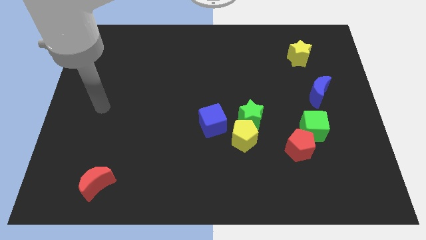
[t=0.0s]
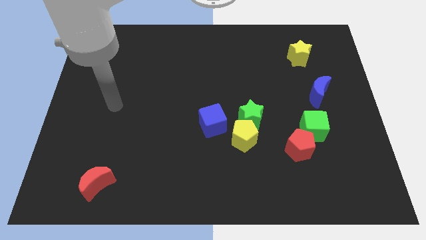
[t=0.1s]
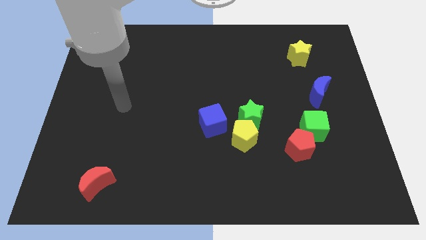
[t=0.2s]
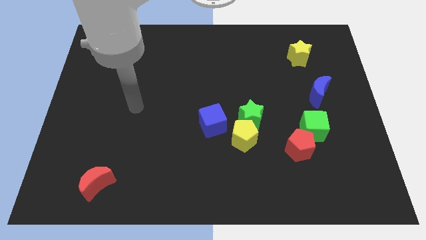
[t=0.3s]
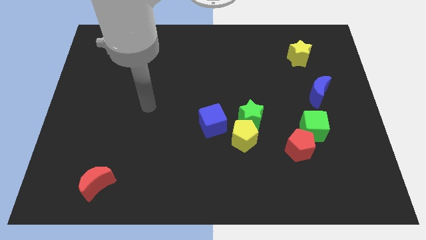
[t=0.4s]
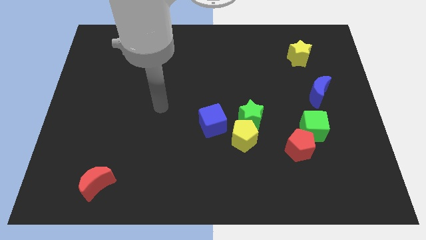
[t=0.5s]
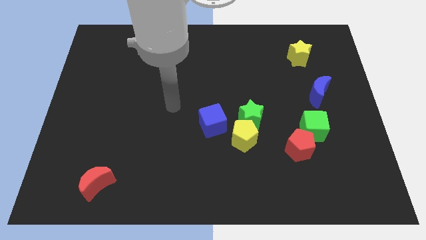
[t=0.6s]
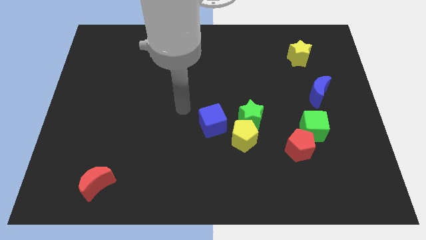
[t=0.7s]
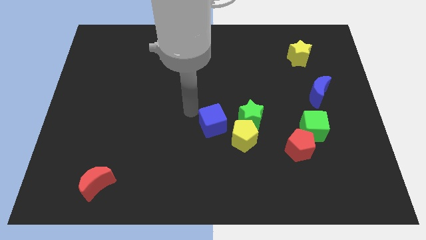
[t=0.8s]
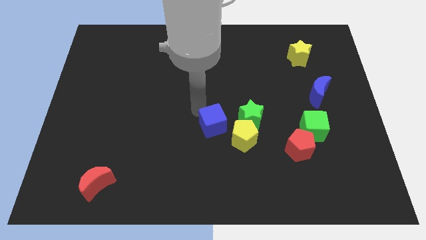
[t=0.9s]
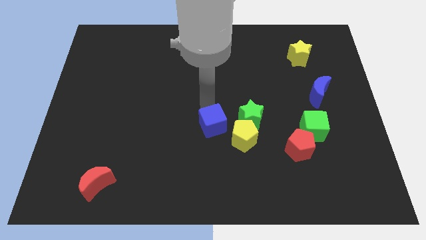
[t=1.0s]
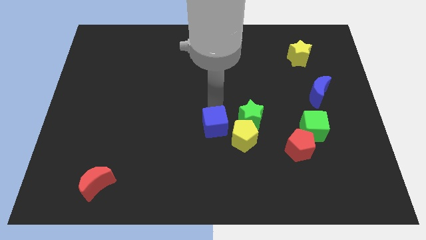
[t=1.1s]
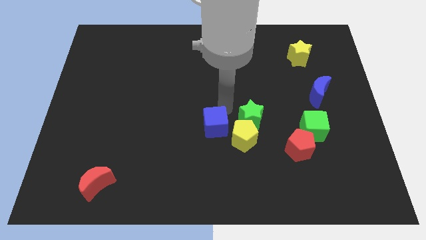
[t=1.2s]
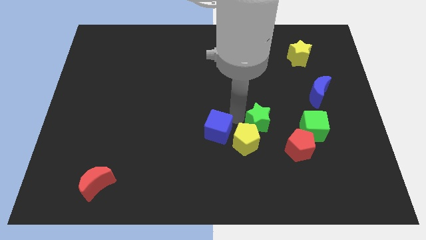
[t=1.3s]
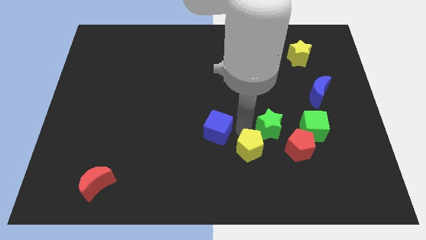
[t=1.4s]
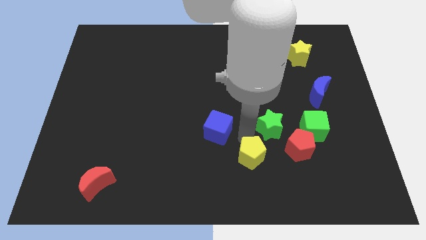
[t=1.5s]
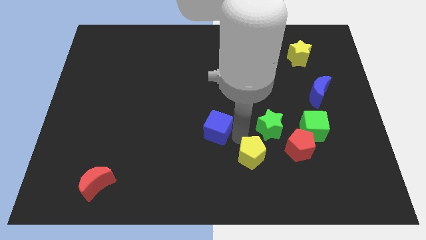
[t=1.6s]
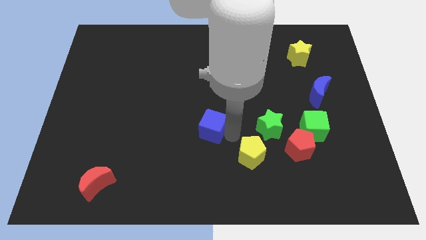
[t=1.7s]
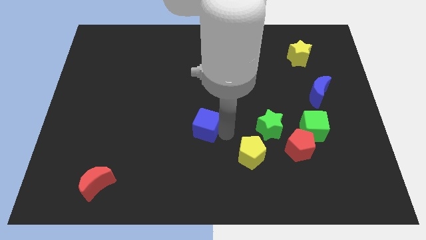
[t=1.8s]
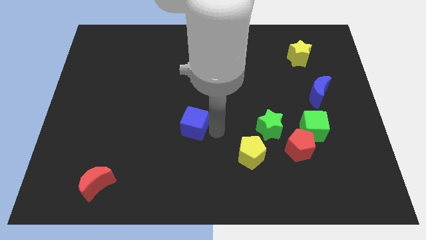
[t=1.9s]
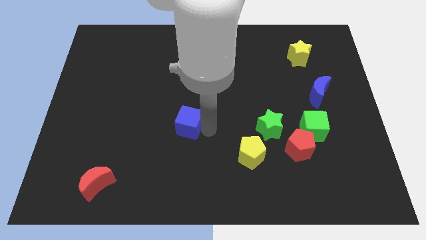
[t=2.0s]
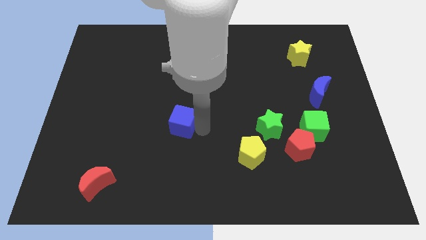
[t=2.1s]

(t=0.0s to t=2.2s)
slightly push the blue cube to the left

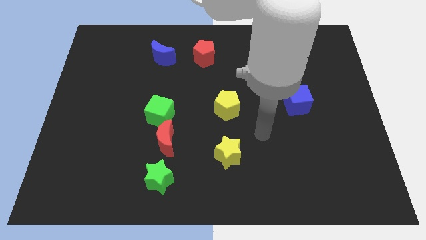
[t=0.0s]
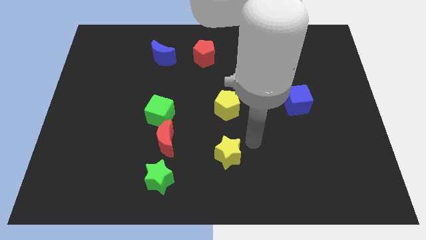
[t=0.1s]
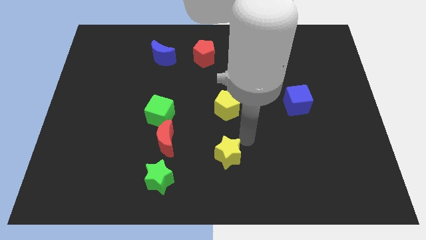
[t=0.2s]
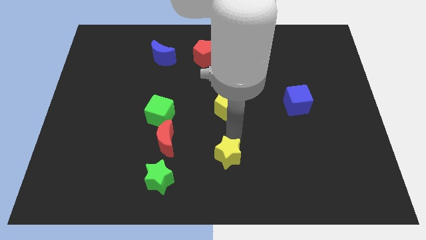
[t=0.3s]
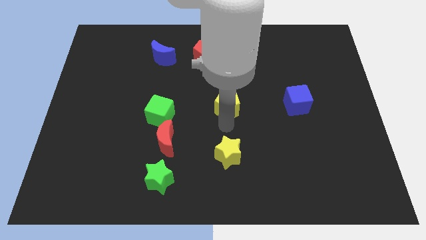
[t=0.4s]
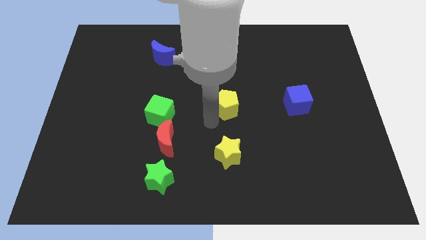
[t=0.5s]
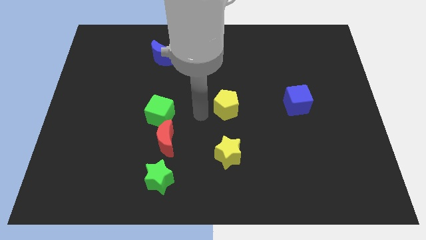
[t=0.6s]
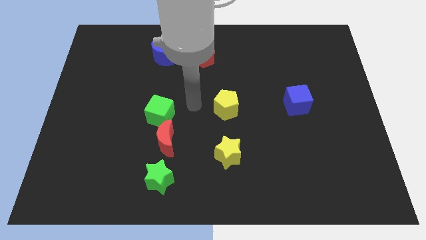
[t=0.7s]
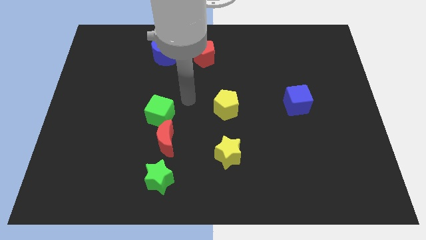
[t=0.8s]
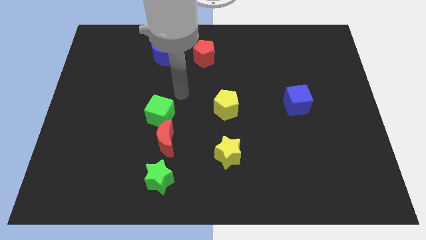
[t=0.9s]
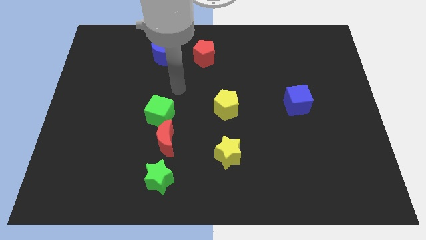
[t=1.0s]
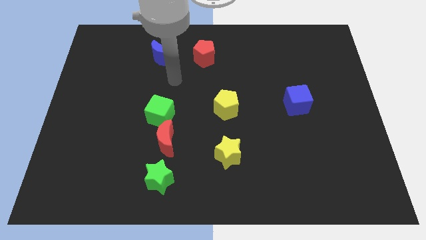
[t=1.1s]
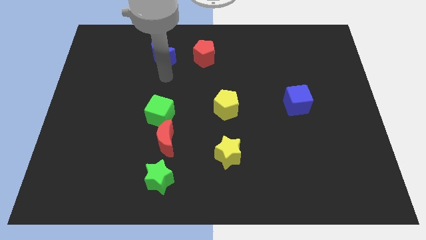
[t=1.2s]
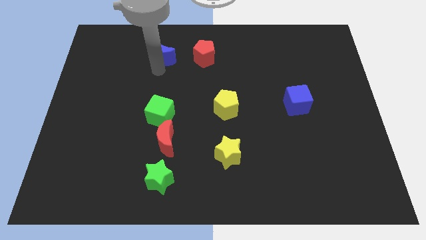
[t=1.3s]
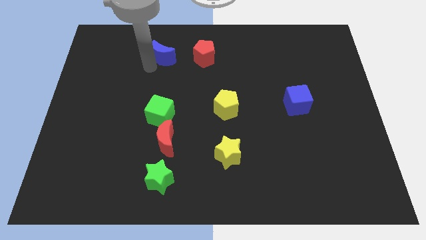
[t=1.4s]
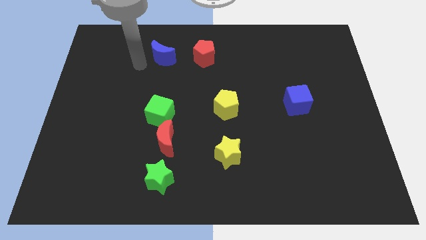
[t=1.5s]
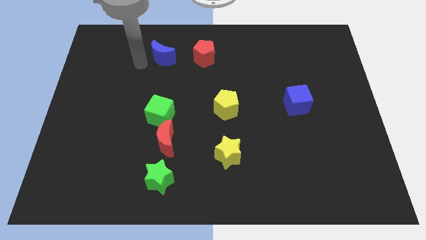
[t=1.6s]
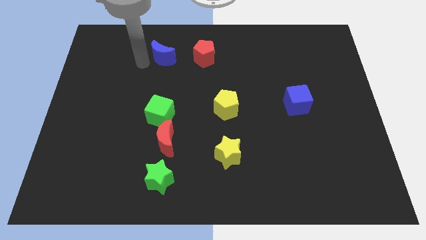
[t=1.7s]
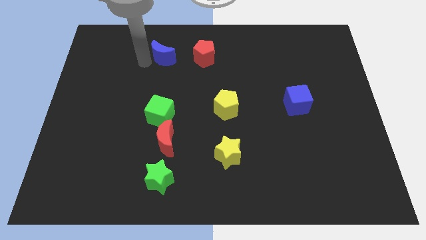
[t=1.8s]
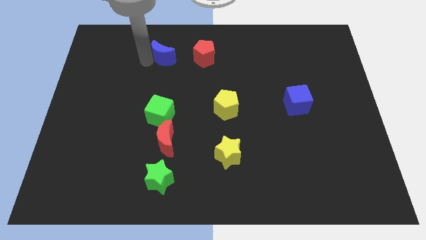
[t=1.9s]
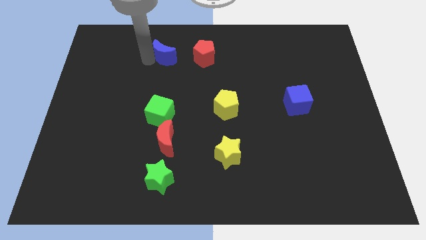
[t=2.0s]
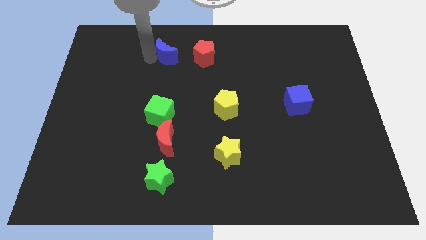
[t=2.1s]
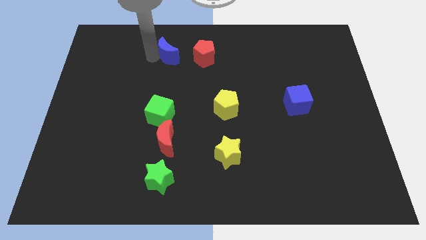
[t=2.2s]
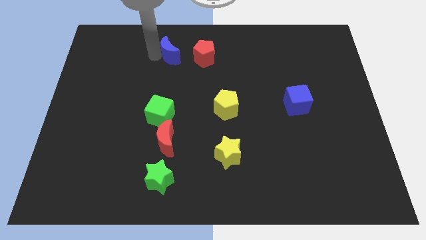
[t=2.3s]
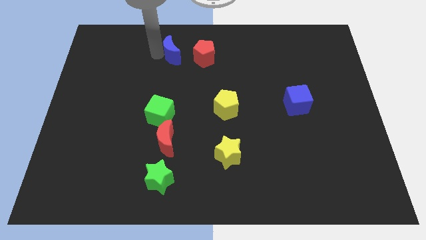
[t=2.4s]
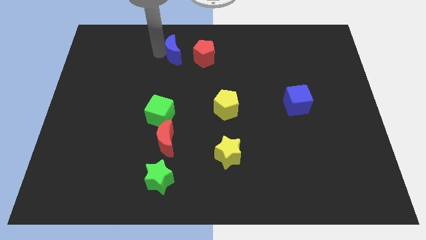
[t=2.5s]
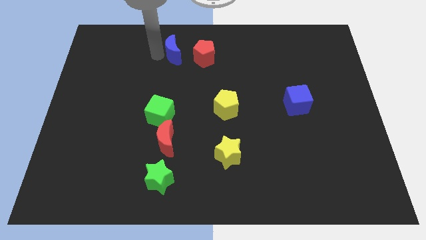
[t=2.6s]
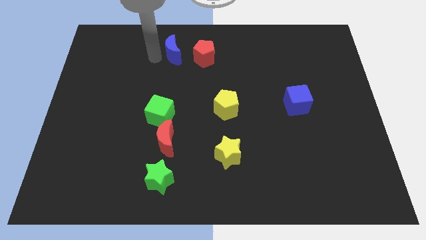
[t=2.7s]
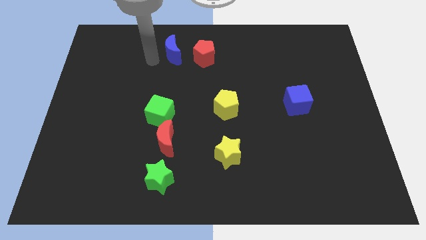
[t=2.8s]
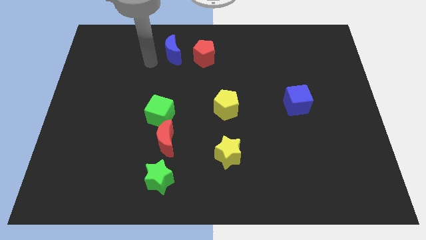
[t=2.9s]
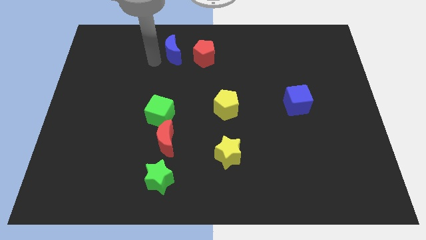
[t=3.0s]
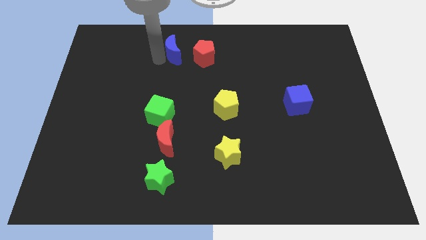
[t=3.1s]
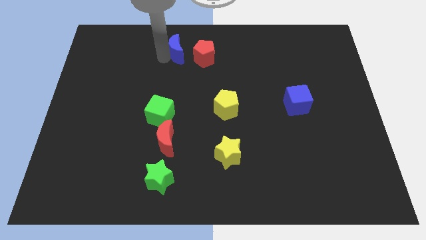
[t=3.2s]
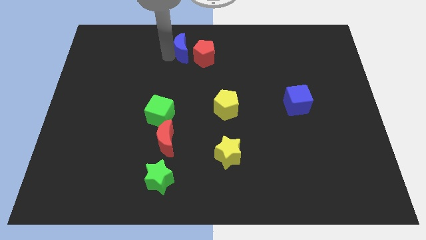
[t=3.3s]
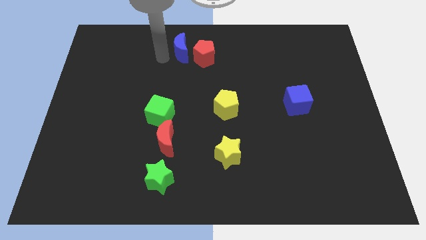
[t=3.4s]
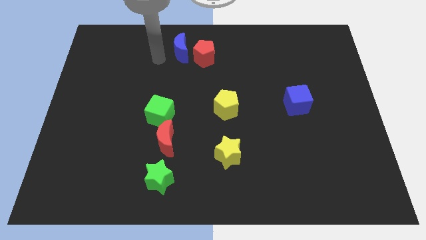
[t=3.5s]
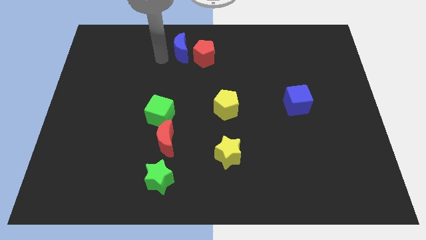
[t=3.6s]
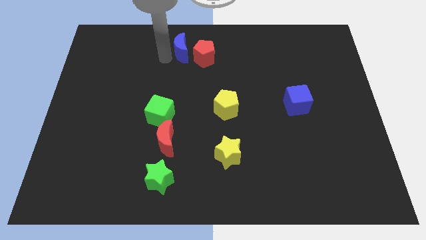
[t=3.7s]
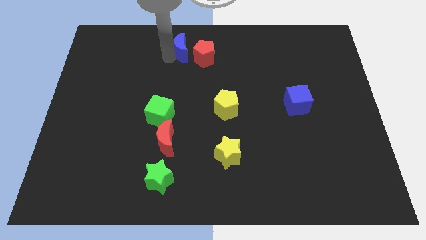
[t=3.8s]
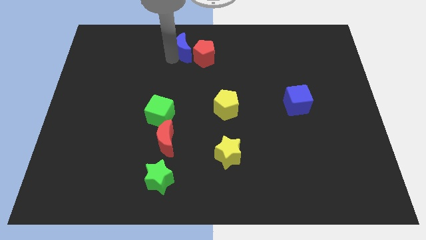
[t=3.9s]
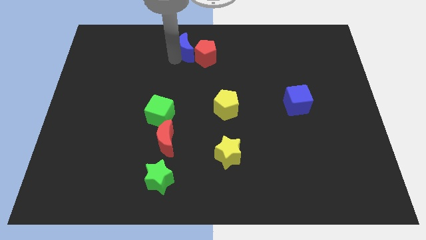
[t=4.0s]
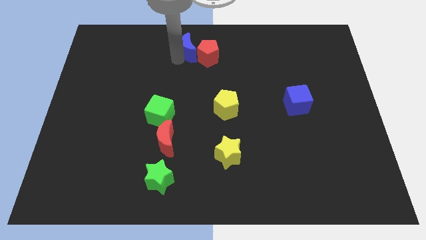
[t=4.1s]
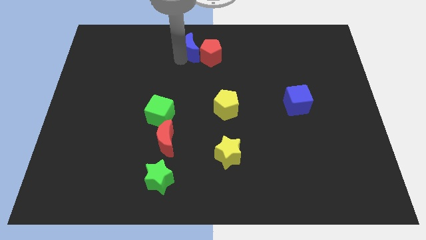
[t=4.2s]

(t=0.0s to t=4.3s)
move the blue moon to the right slightly

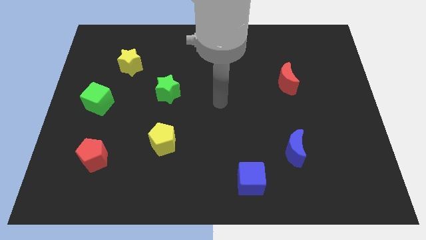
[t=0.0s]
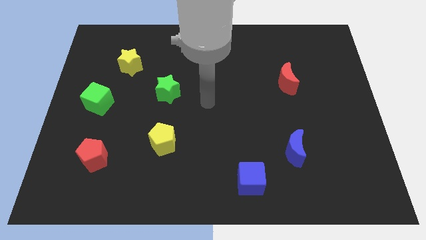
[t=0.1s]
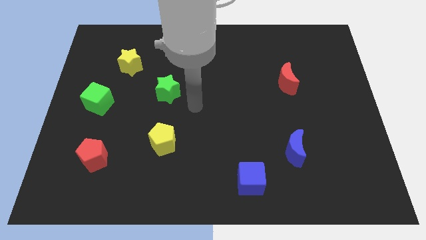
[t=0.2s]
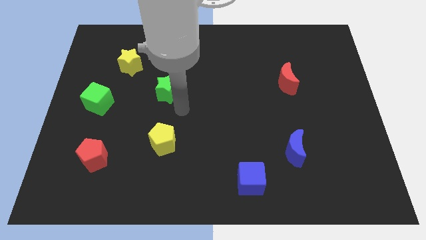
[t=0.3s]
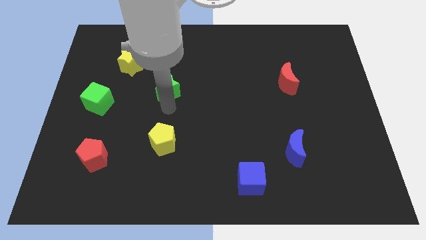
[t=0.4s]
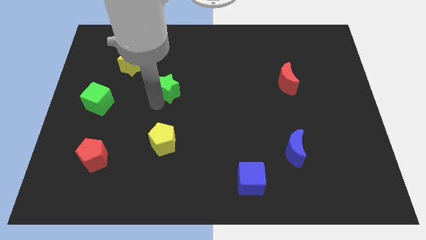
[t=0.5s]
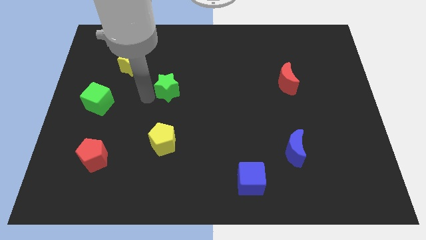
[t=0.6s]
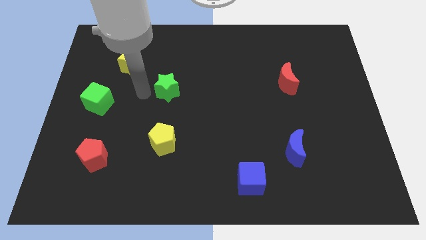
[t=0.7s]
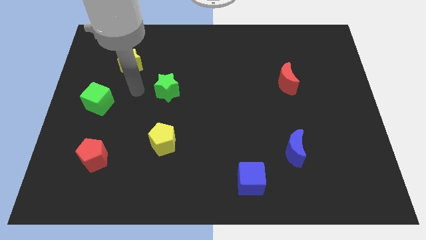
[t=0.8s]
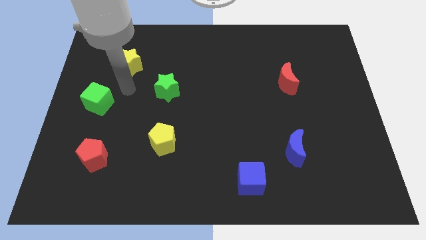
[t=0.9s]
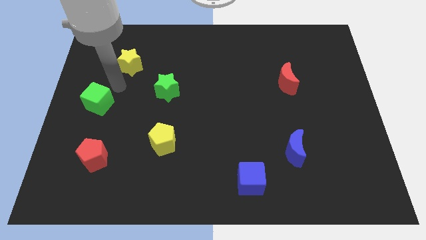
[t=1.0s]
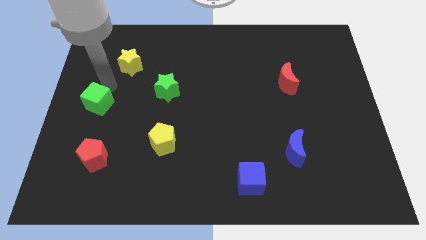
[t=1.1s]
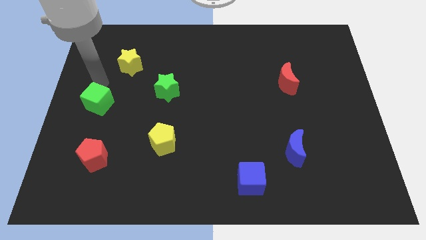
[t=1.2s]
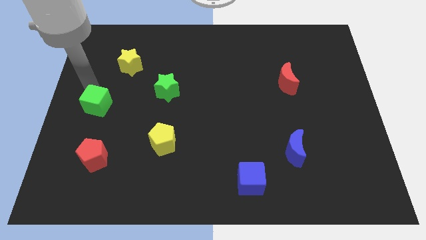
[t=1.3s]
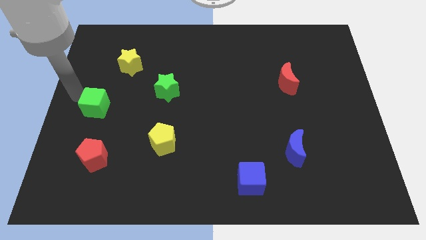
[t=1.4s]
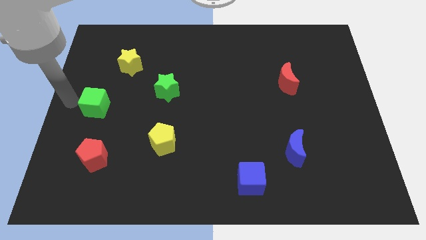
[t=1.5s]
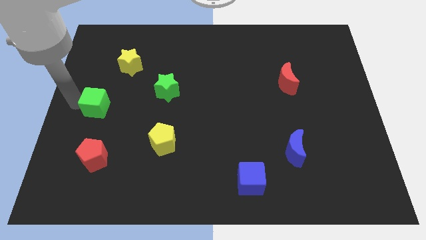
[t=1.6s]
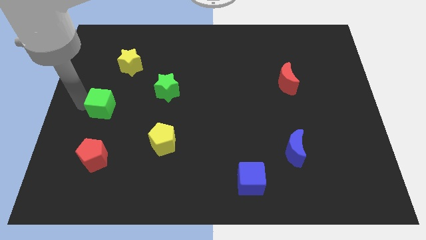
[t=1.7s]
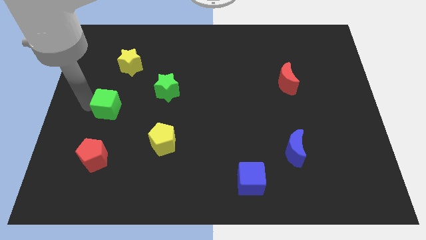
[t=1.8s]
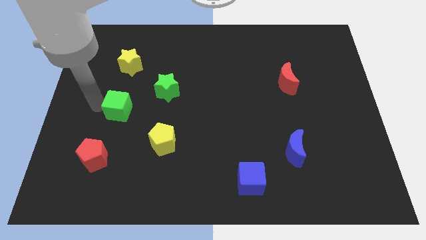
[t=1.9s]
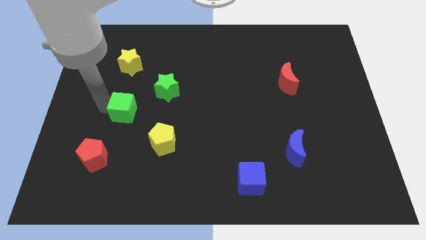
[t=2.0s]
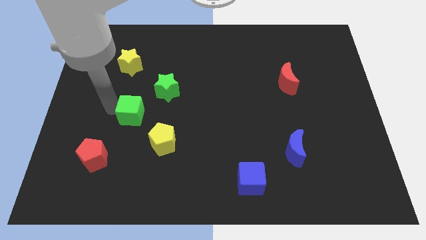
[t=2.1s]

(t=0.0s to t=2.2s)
push the green cube a bit to the right
